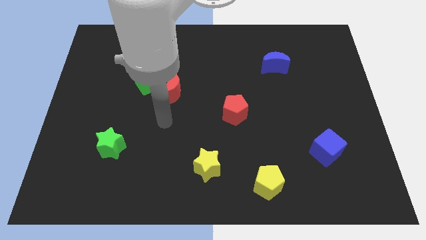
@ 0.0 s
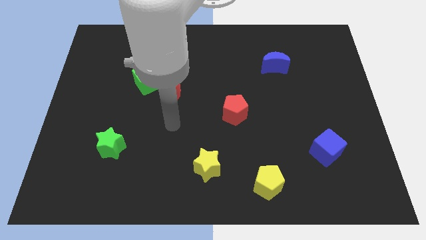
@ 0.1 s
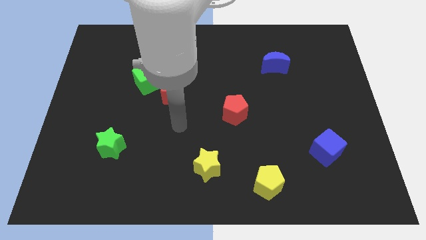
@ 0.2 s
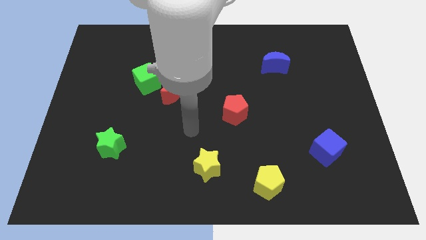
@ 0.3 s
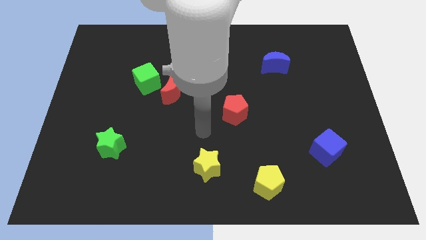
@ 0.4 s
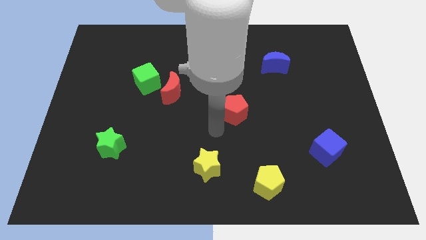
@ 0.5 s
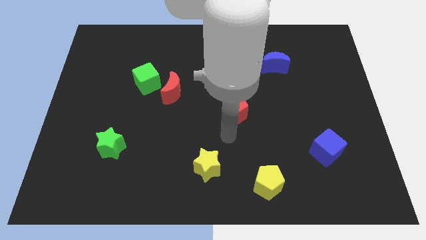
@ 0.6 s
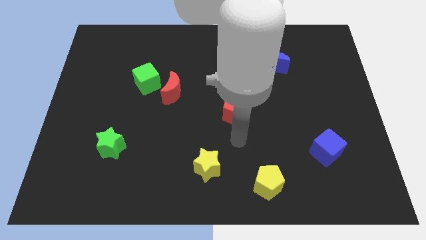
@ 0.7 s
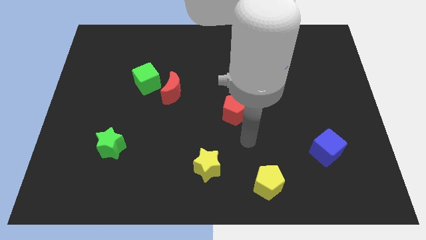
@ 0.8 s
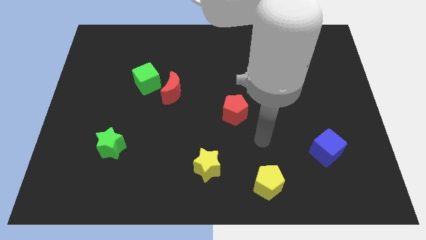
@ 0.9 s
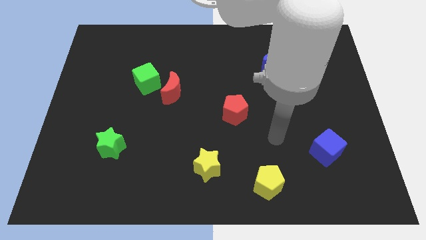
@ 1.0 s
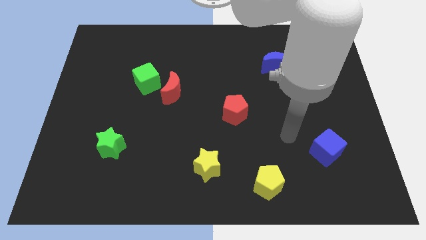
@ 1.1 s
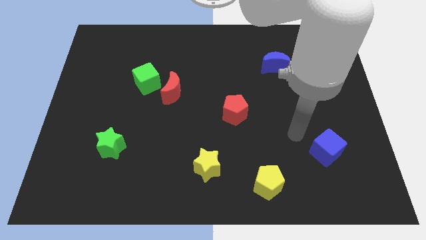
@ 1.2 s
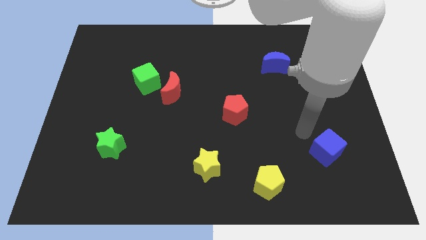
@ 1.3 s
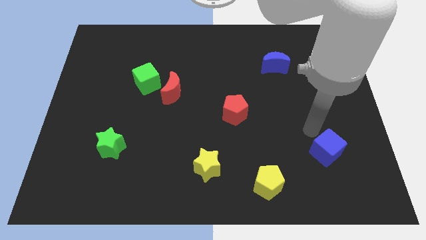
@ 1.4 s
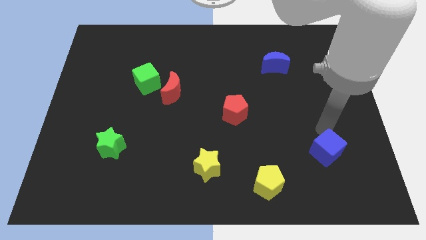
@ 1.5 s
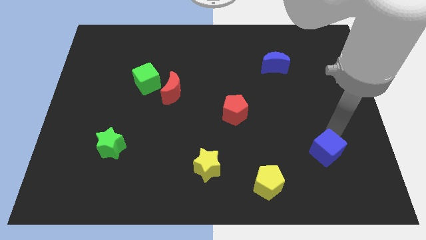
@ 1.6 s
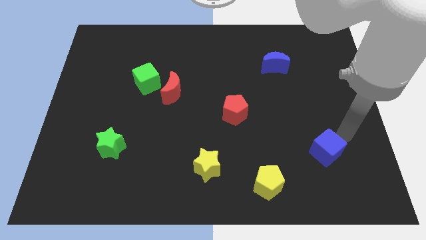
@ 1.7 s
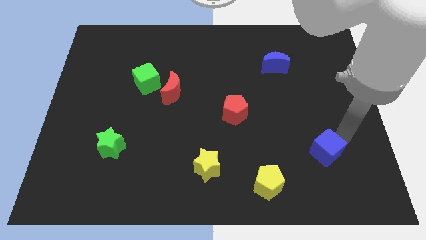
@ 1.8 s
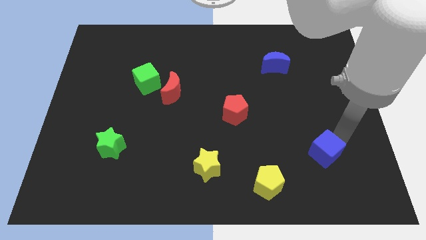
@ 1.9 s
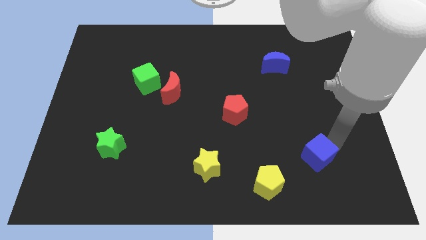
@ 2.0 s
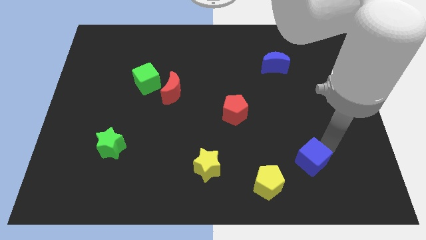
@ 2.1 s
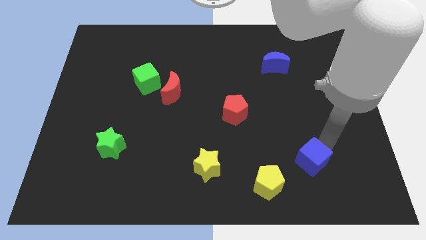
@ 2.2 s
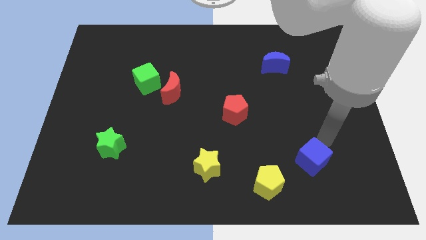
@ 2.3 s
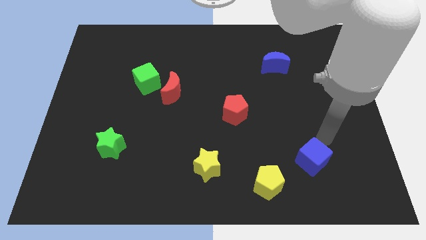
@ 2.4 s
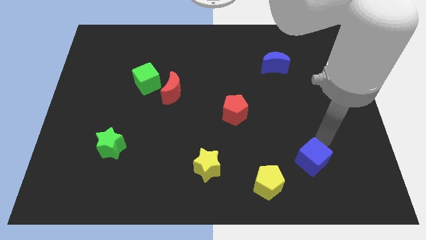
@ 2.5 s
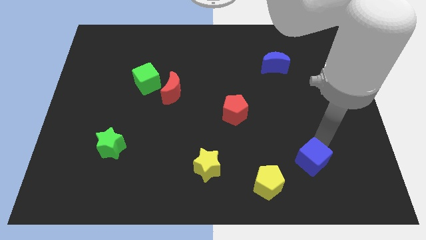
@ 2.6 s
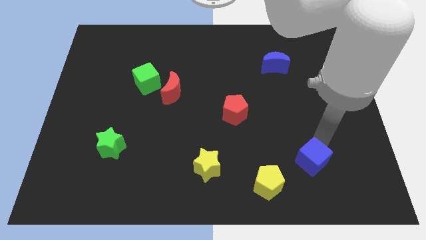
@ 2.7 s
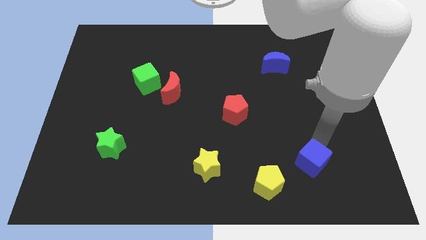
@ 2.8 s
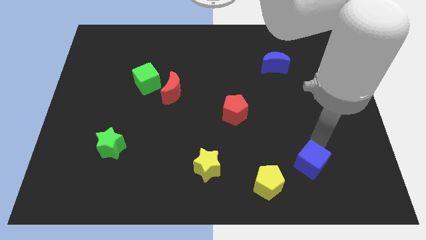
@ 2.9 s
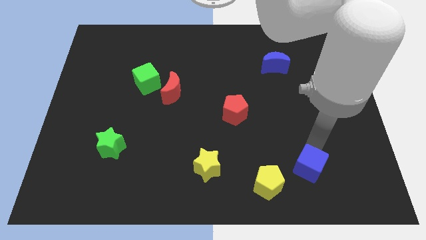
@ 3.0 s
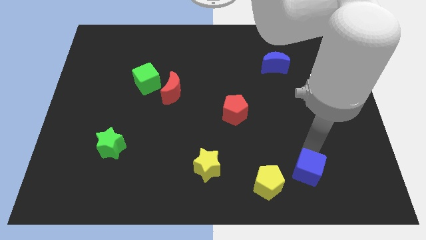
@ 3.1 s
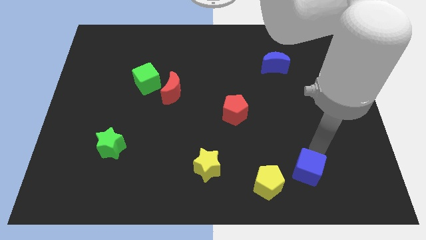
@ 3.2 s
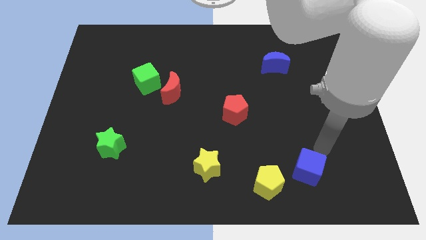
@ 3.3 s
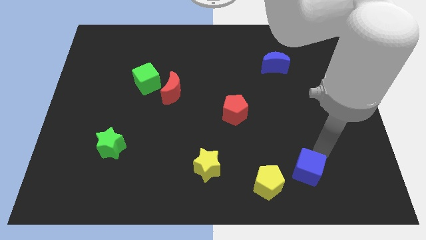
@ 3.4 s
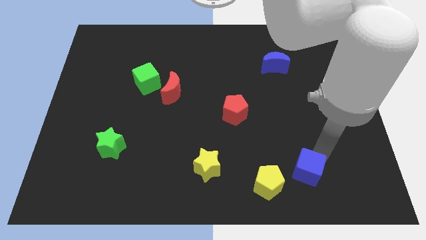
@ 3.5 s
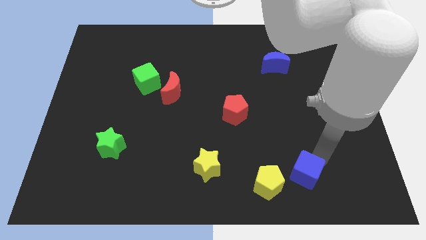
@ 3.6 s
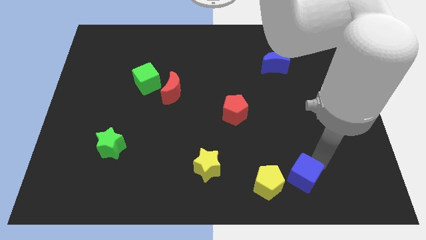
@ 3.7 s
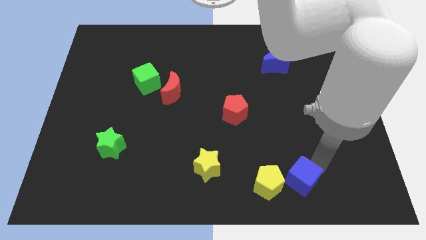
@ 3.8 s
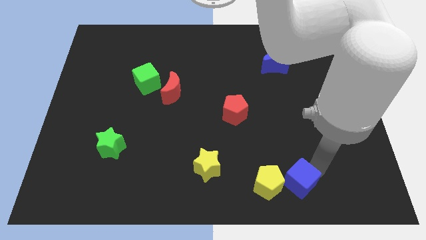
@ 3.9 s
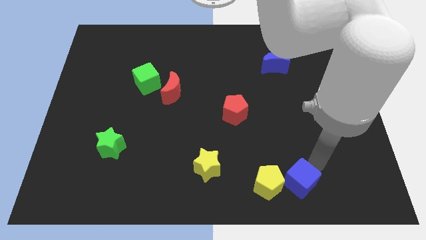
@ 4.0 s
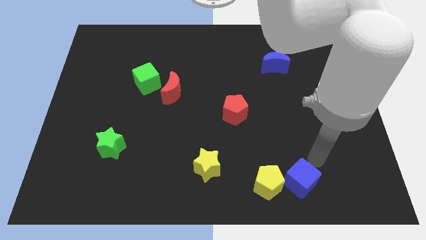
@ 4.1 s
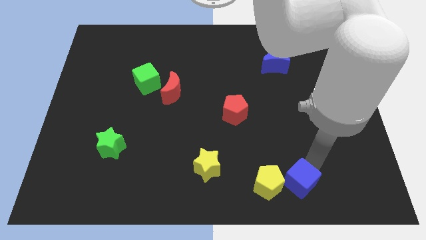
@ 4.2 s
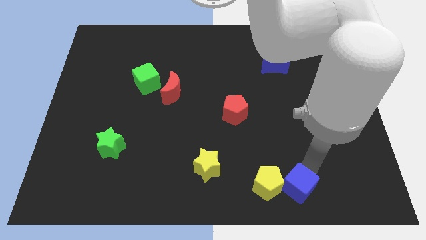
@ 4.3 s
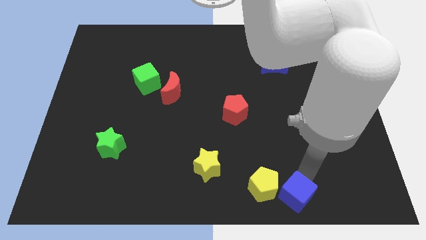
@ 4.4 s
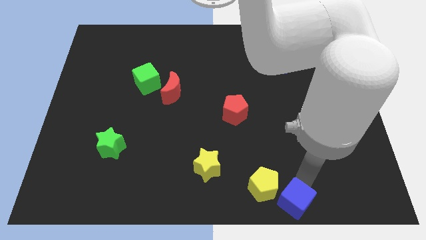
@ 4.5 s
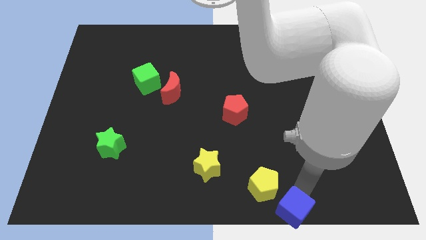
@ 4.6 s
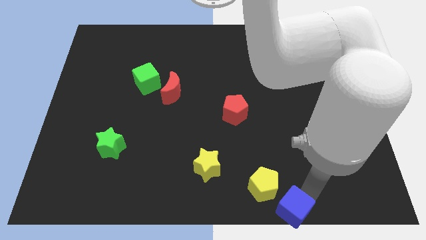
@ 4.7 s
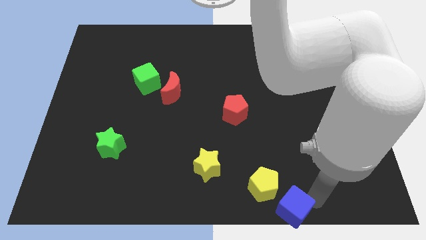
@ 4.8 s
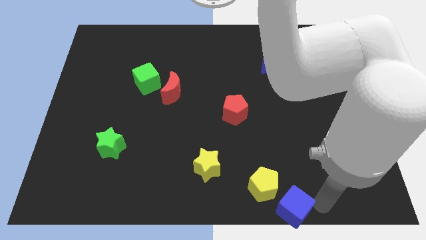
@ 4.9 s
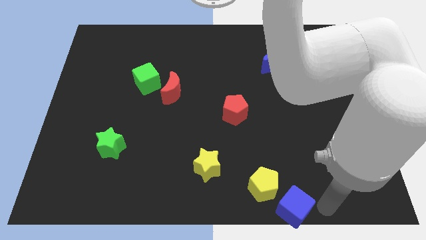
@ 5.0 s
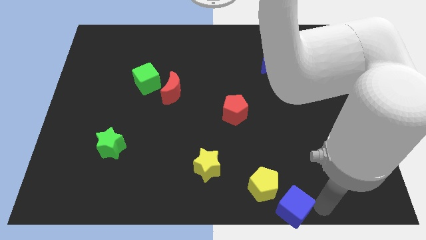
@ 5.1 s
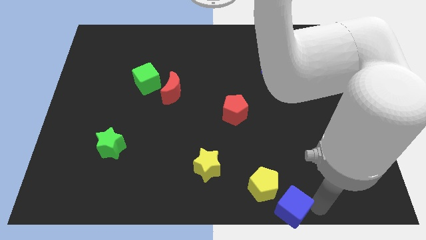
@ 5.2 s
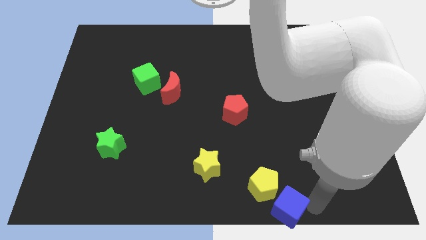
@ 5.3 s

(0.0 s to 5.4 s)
slide the blue cube to the bottom

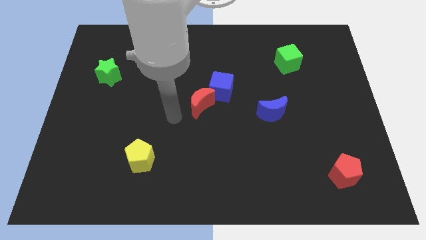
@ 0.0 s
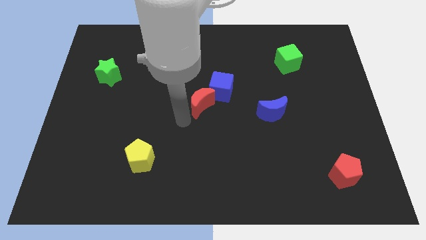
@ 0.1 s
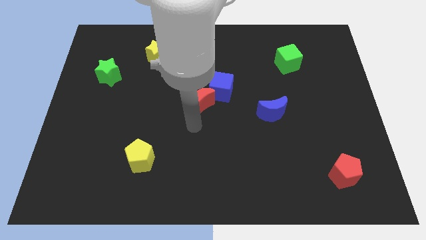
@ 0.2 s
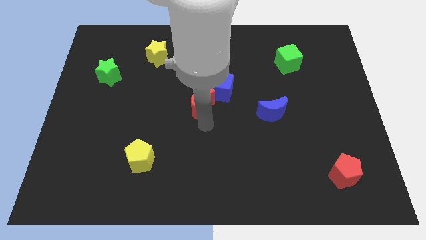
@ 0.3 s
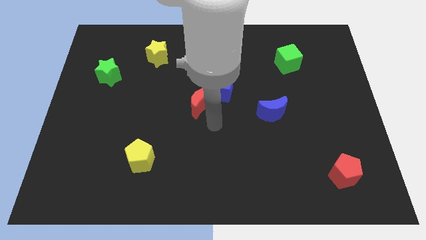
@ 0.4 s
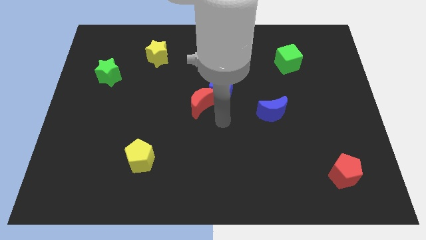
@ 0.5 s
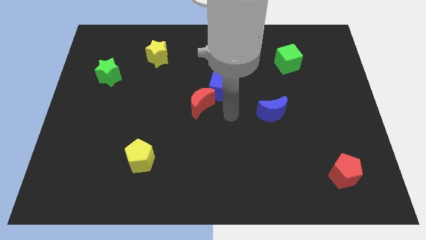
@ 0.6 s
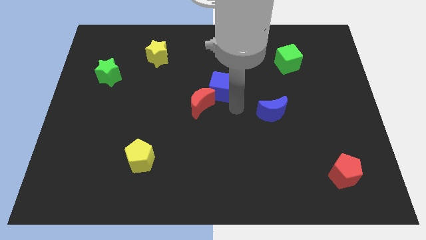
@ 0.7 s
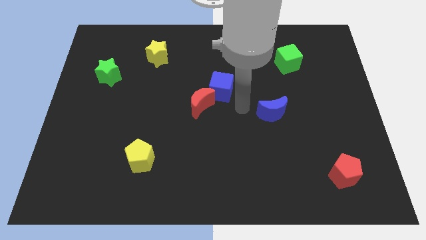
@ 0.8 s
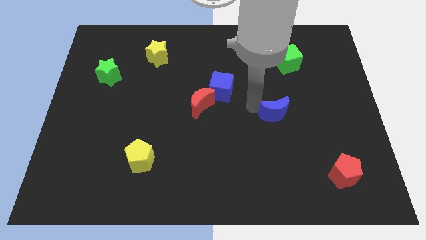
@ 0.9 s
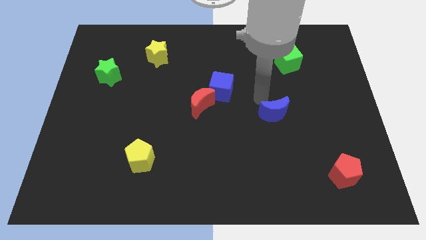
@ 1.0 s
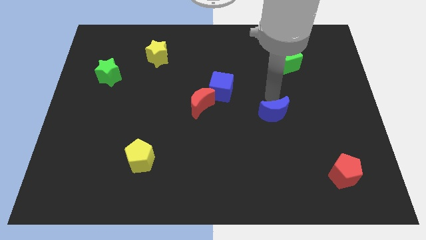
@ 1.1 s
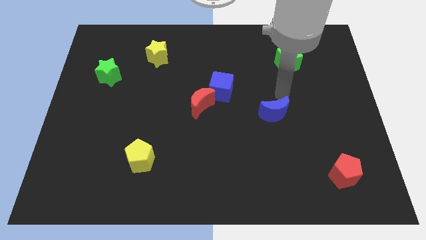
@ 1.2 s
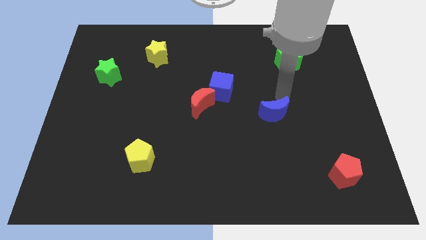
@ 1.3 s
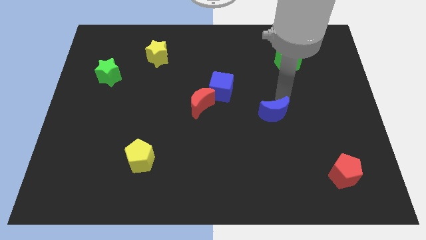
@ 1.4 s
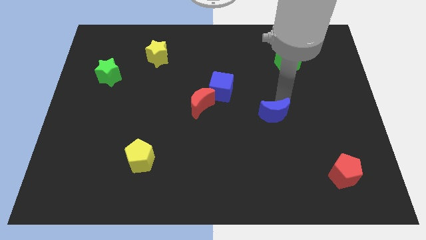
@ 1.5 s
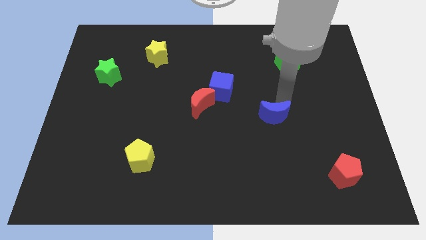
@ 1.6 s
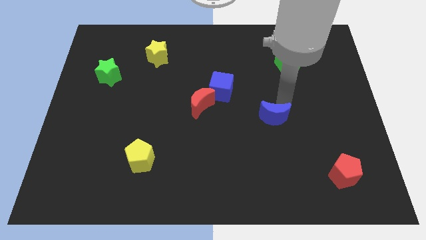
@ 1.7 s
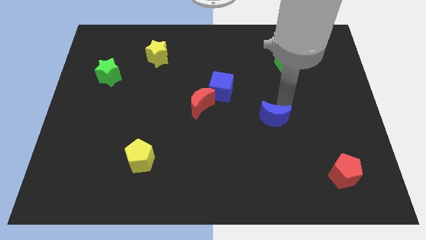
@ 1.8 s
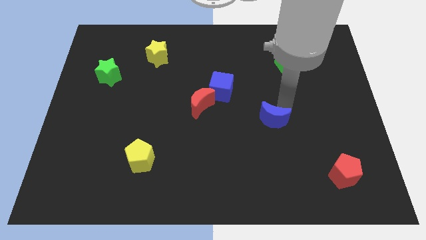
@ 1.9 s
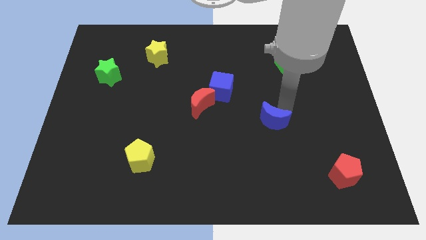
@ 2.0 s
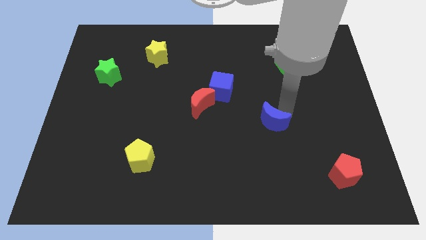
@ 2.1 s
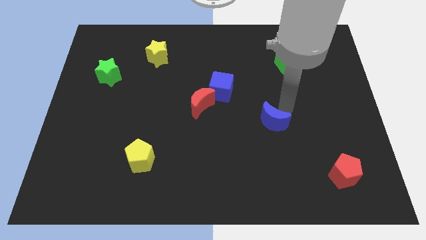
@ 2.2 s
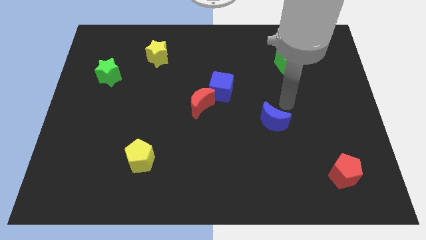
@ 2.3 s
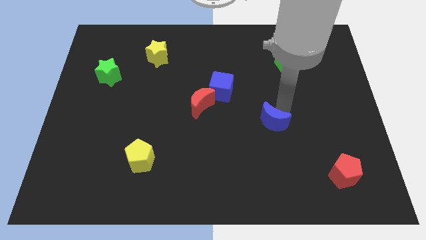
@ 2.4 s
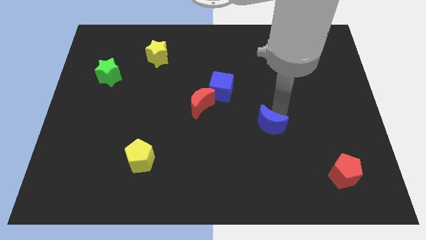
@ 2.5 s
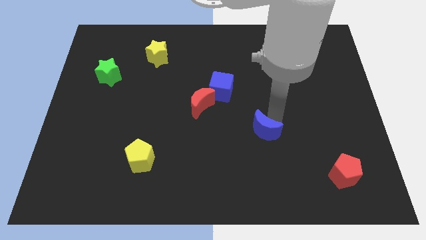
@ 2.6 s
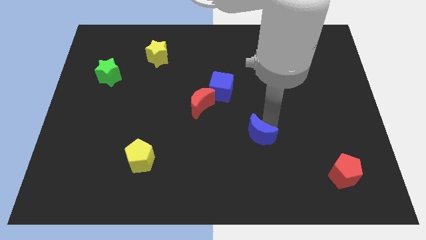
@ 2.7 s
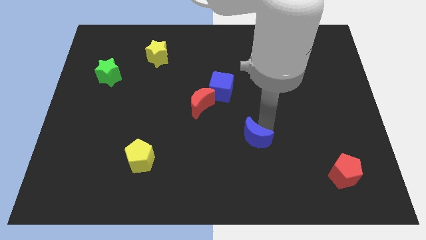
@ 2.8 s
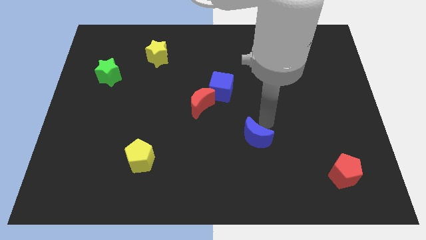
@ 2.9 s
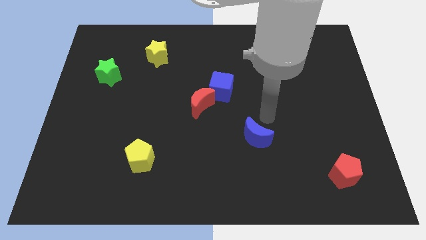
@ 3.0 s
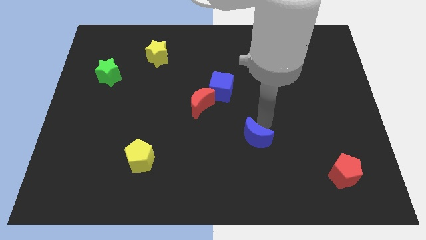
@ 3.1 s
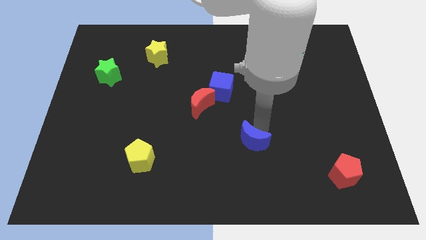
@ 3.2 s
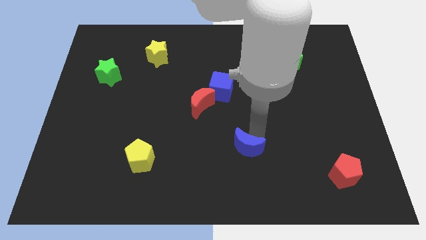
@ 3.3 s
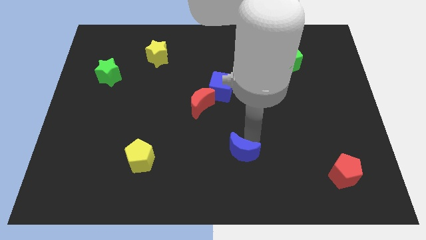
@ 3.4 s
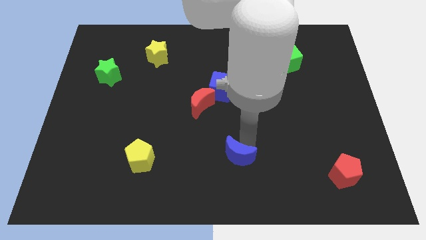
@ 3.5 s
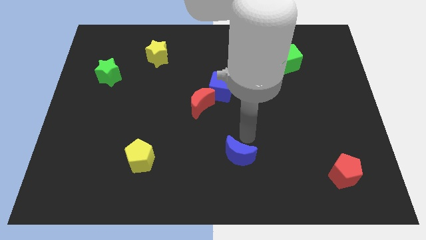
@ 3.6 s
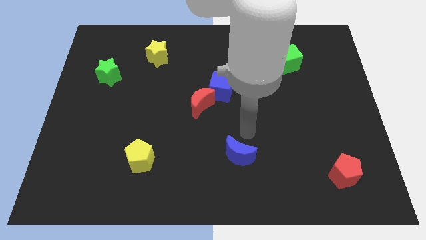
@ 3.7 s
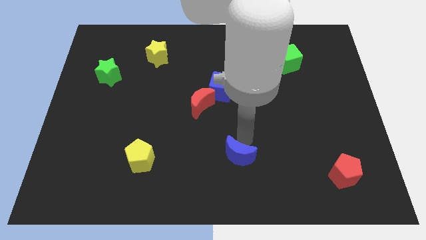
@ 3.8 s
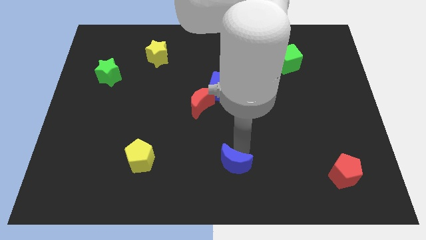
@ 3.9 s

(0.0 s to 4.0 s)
put the blue moon to the bottom side
